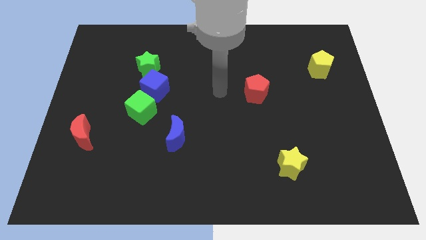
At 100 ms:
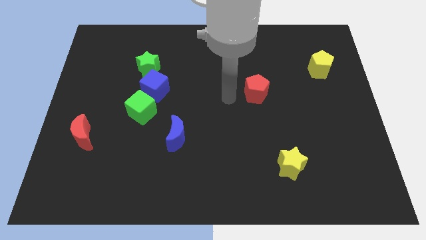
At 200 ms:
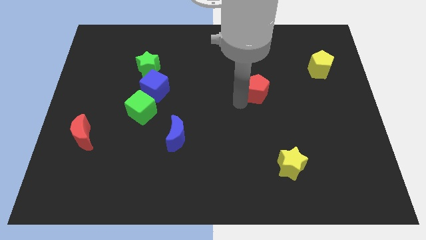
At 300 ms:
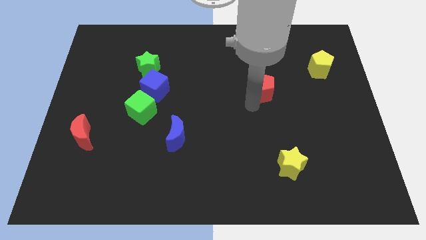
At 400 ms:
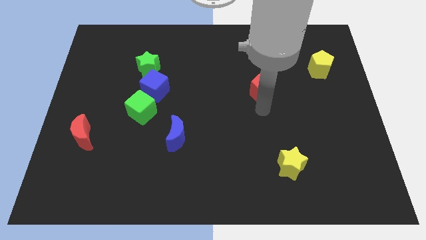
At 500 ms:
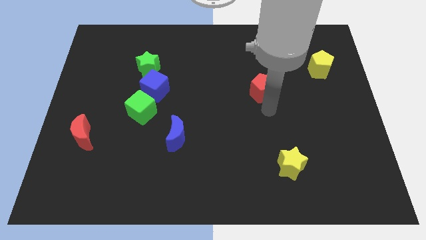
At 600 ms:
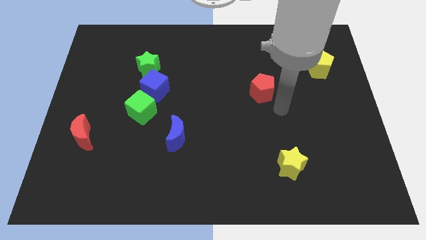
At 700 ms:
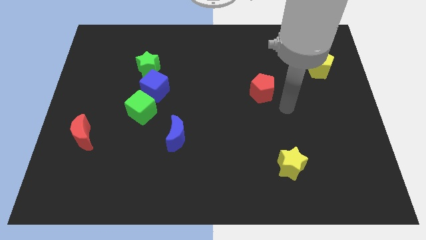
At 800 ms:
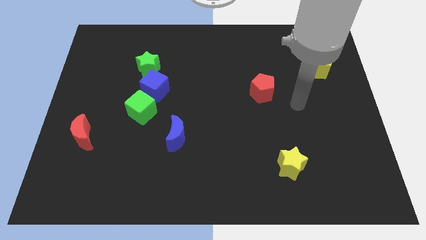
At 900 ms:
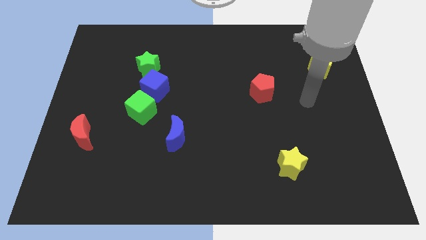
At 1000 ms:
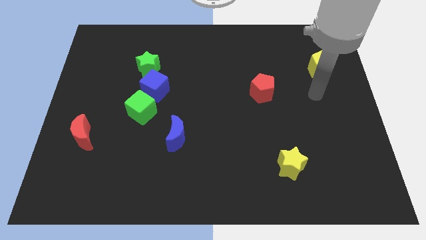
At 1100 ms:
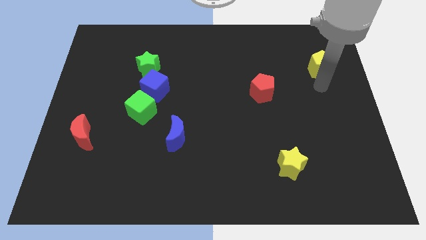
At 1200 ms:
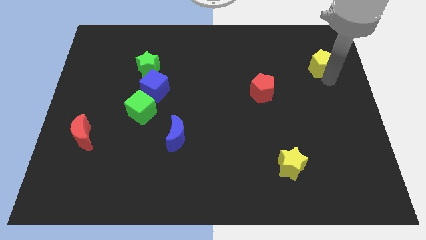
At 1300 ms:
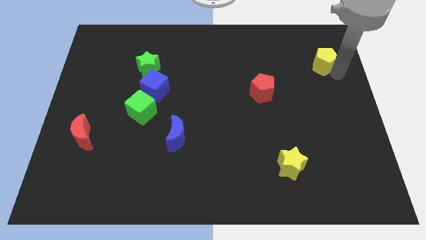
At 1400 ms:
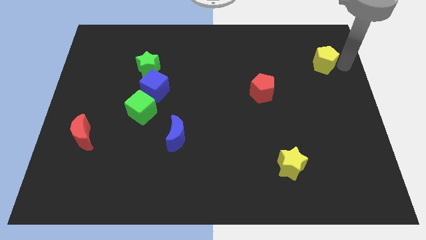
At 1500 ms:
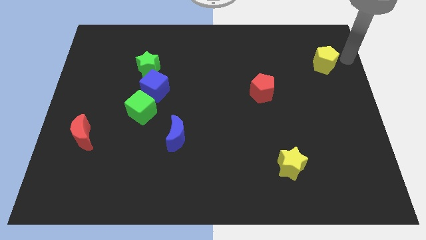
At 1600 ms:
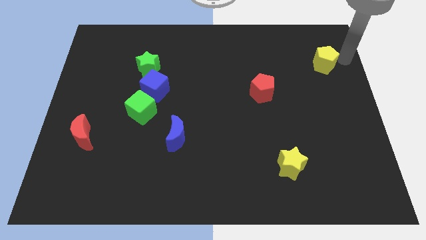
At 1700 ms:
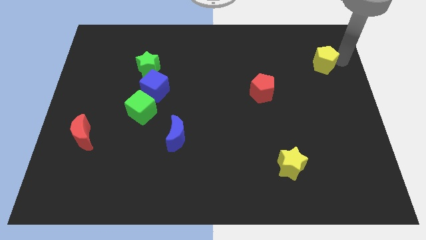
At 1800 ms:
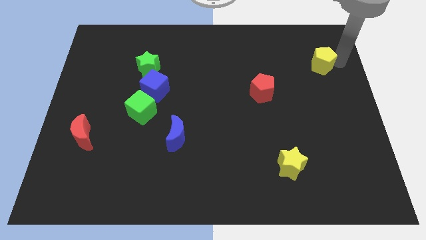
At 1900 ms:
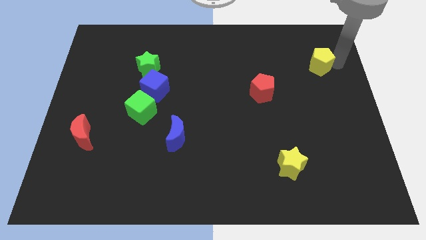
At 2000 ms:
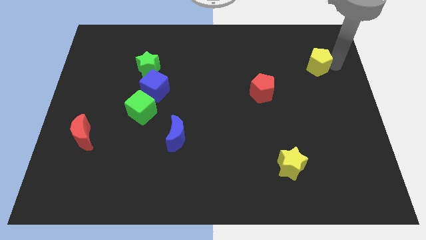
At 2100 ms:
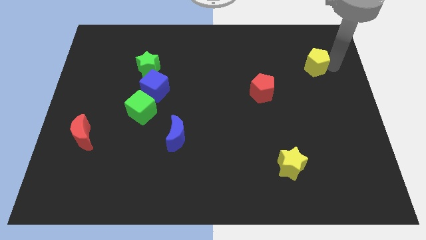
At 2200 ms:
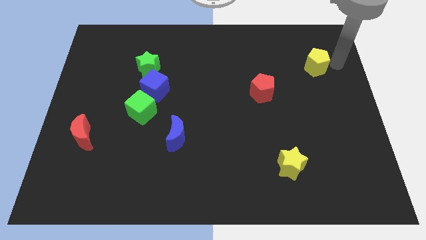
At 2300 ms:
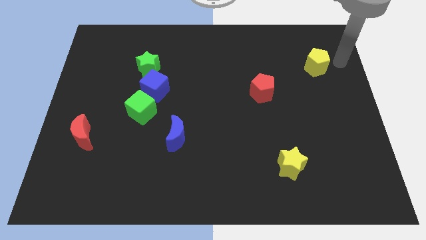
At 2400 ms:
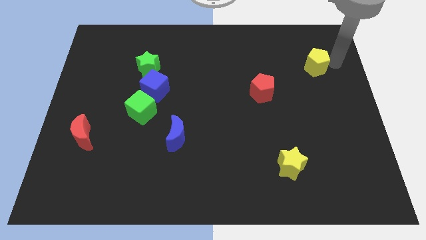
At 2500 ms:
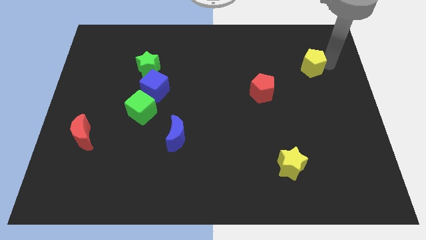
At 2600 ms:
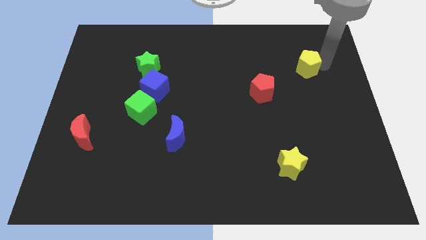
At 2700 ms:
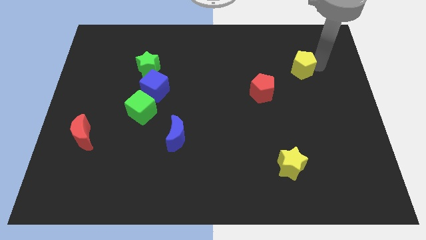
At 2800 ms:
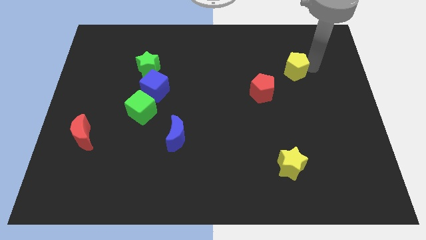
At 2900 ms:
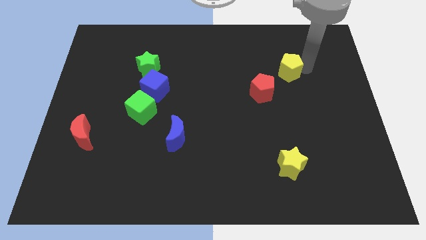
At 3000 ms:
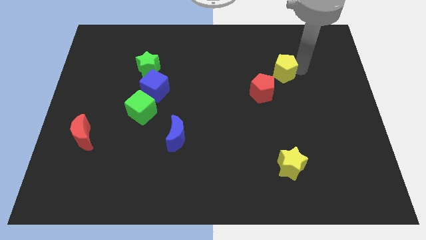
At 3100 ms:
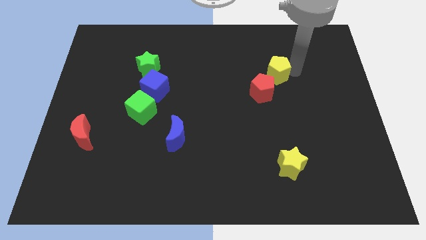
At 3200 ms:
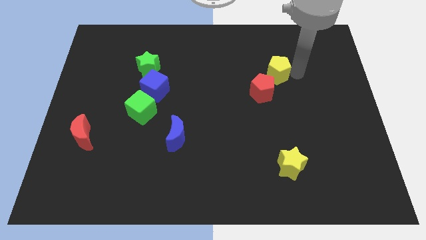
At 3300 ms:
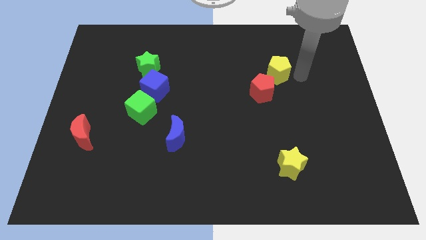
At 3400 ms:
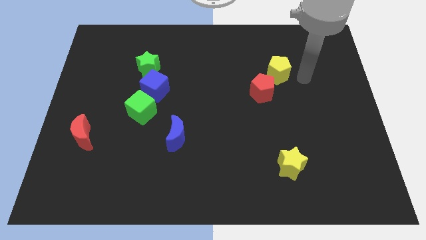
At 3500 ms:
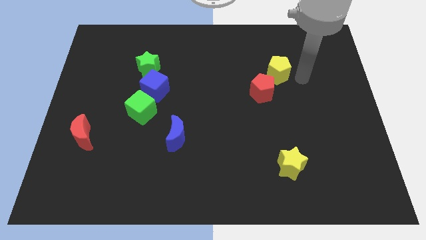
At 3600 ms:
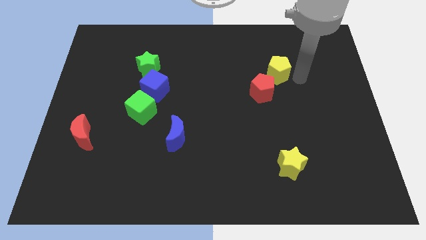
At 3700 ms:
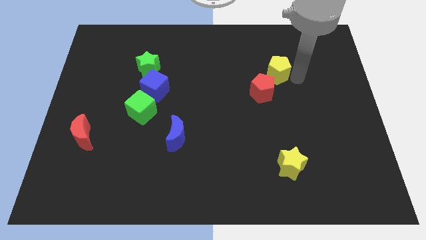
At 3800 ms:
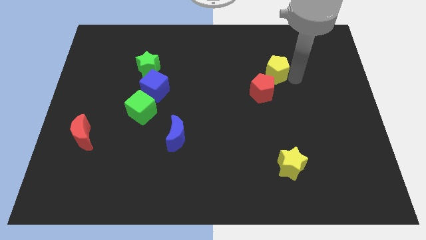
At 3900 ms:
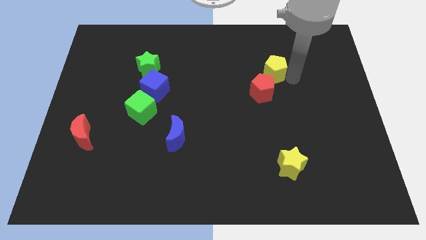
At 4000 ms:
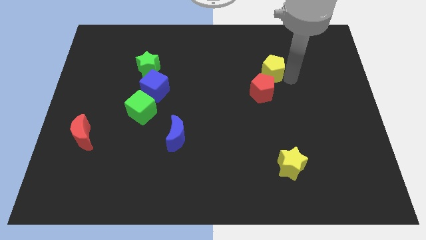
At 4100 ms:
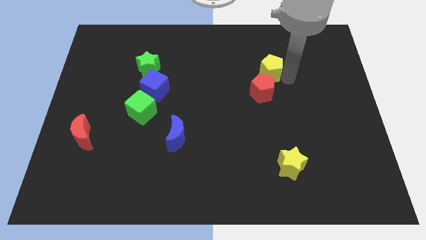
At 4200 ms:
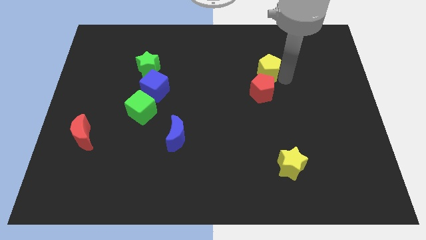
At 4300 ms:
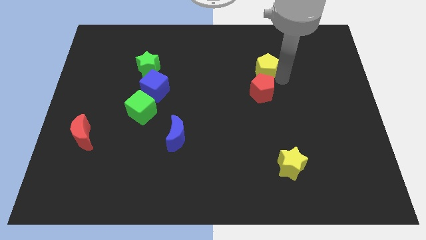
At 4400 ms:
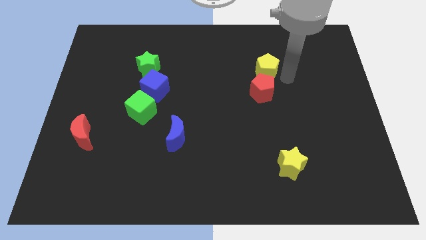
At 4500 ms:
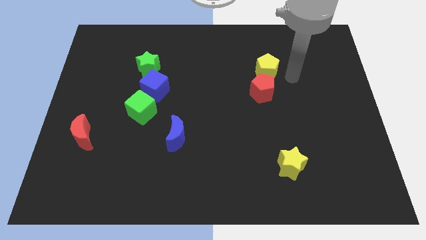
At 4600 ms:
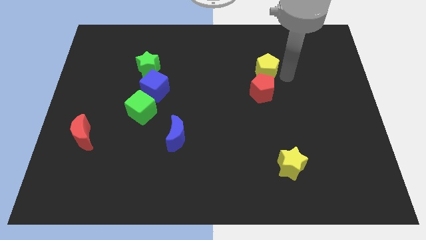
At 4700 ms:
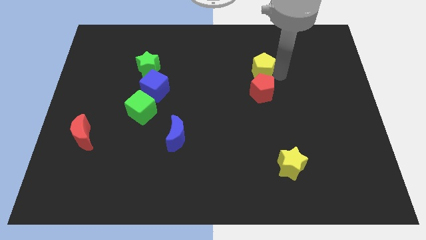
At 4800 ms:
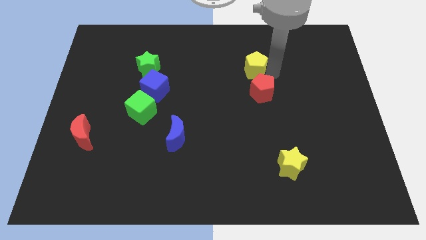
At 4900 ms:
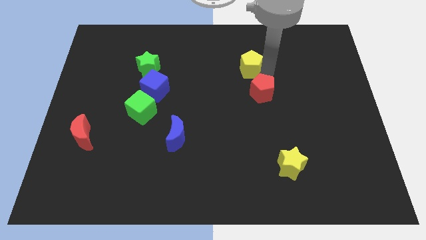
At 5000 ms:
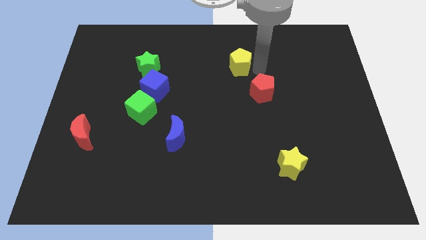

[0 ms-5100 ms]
slide the yellow pentagon to the left

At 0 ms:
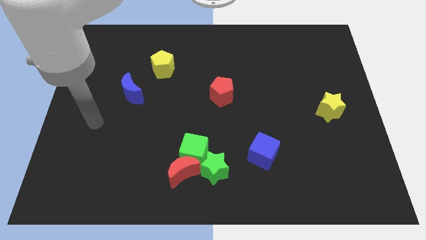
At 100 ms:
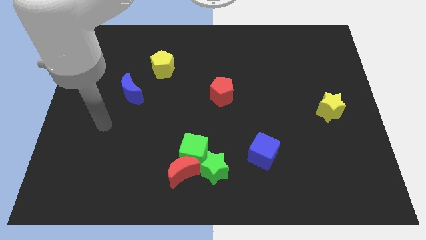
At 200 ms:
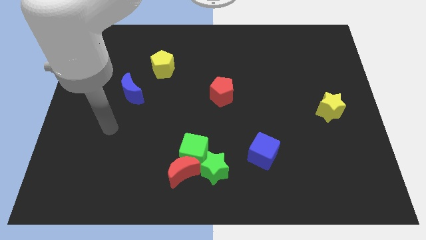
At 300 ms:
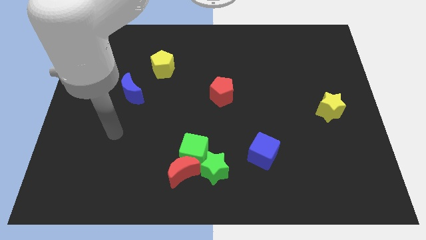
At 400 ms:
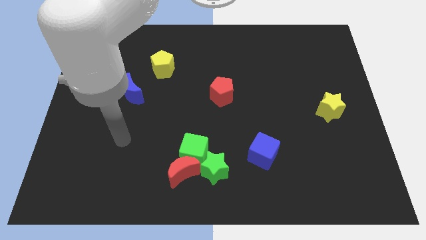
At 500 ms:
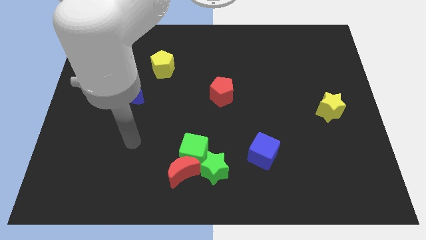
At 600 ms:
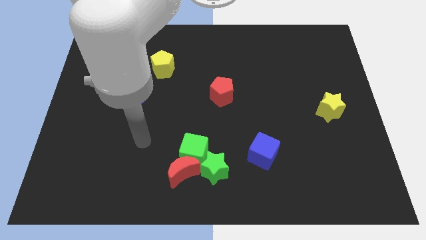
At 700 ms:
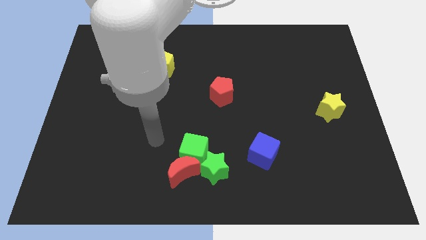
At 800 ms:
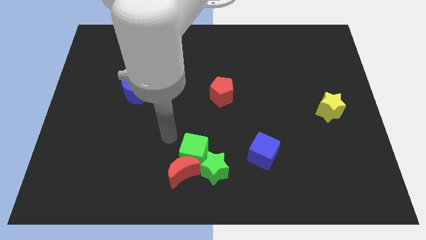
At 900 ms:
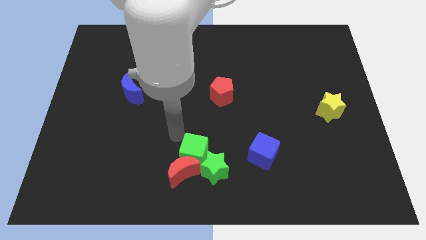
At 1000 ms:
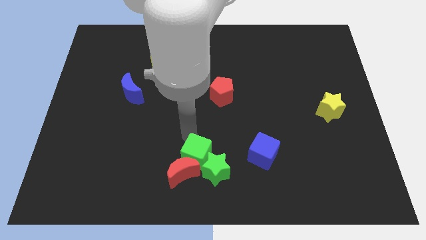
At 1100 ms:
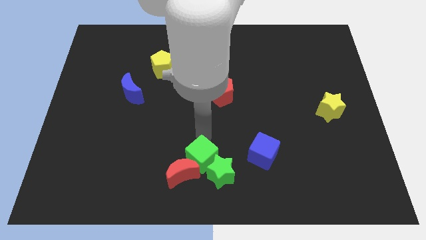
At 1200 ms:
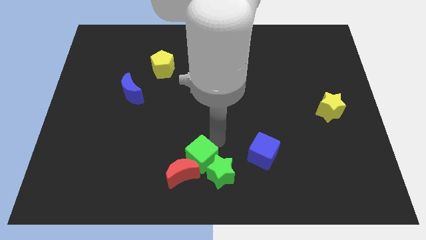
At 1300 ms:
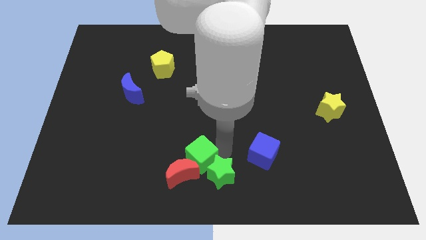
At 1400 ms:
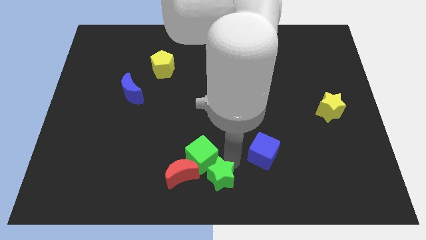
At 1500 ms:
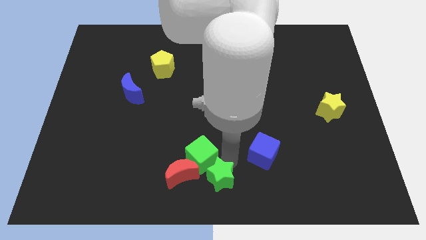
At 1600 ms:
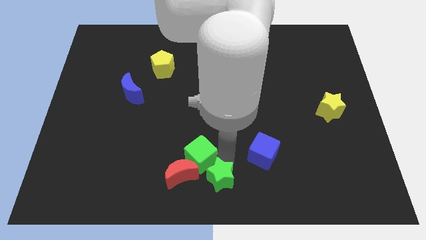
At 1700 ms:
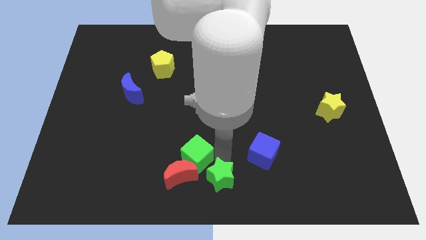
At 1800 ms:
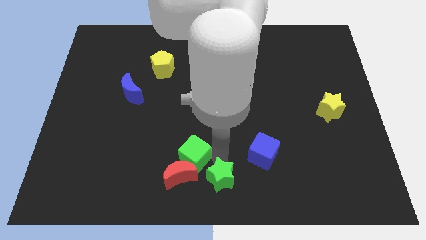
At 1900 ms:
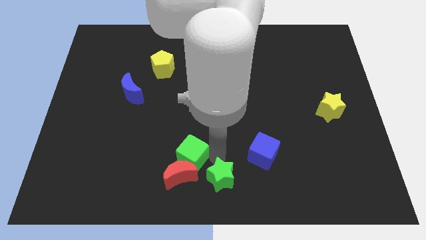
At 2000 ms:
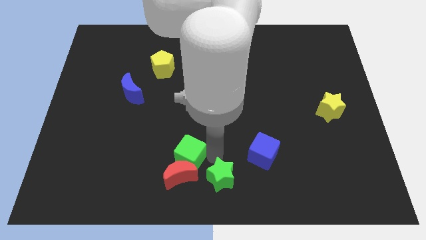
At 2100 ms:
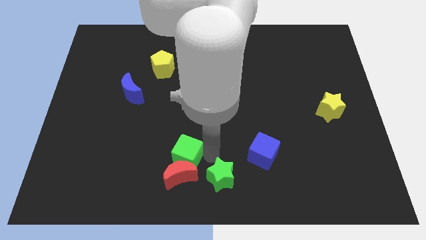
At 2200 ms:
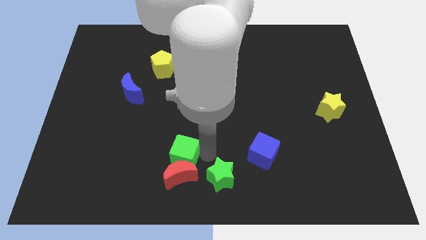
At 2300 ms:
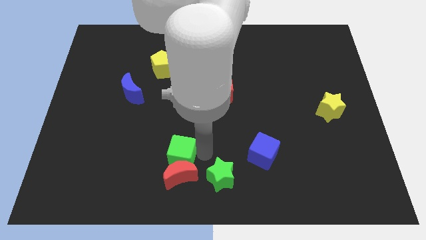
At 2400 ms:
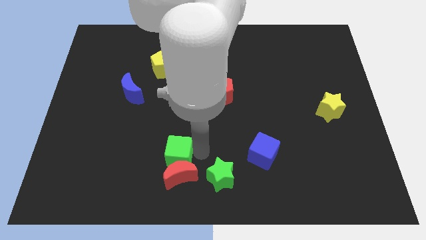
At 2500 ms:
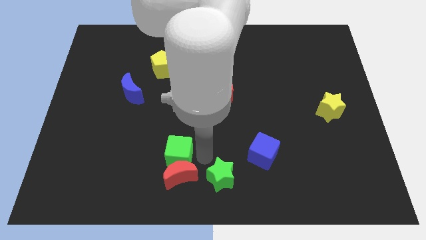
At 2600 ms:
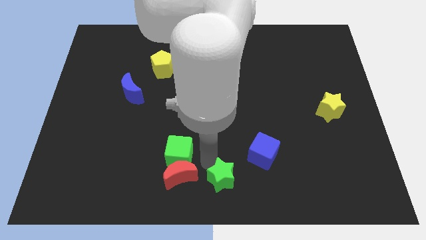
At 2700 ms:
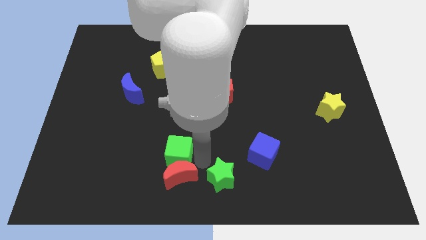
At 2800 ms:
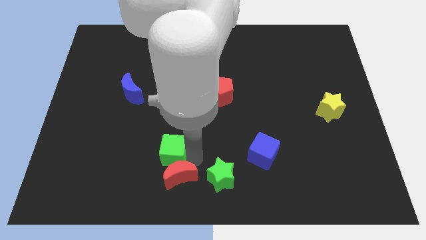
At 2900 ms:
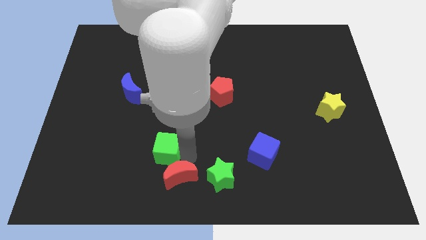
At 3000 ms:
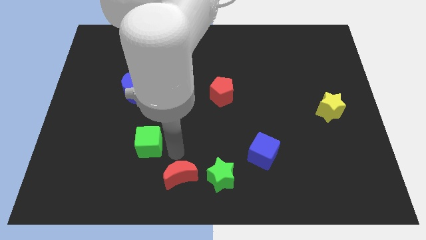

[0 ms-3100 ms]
slide the green cube left a bit
